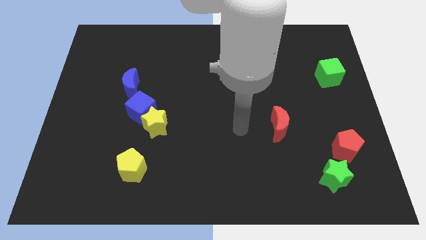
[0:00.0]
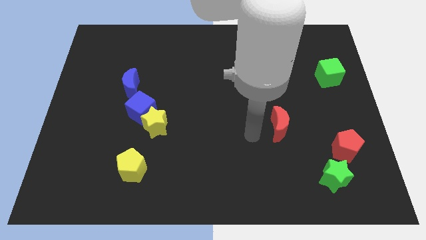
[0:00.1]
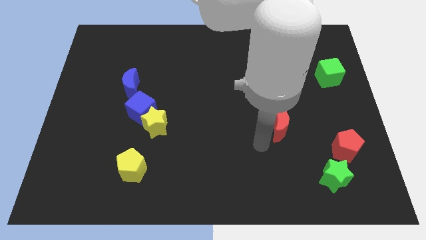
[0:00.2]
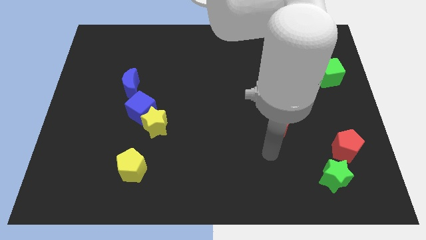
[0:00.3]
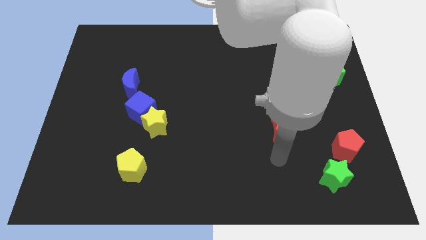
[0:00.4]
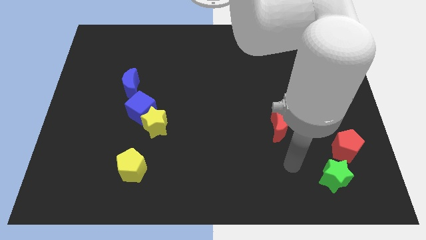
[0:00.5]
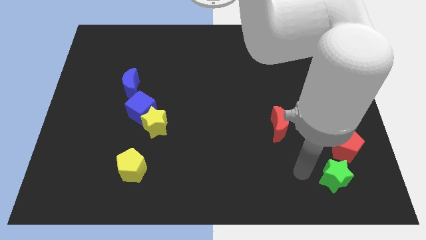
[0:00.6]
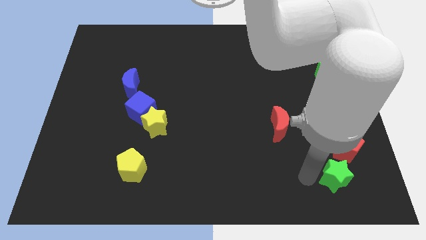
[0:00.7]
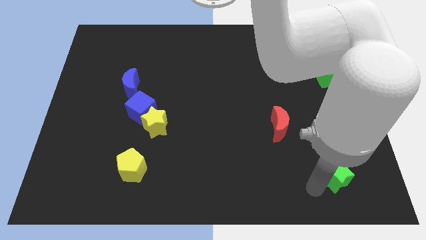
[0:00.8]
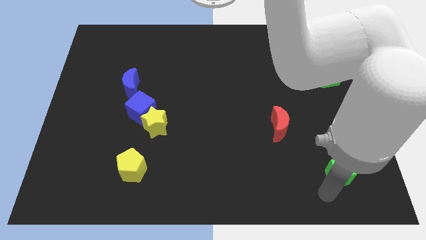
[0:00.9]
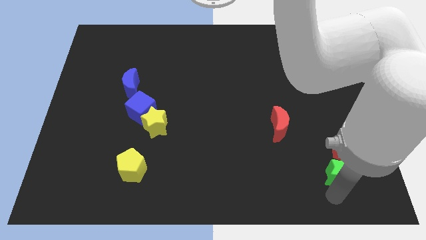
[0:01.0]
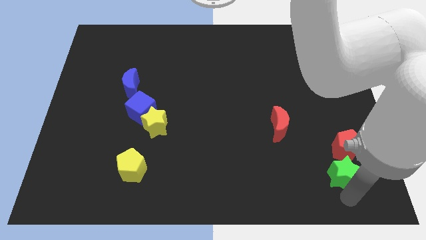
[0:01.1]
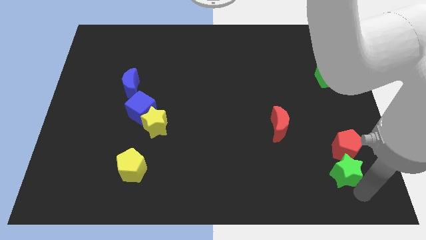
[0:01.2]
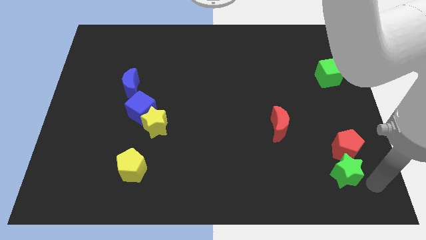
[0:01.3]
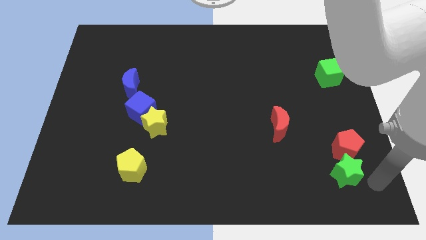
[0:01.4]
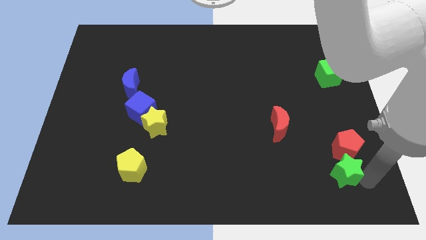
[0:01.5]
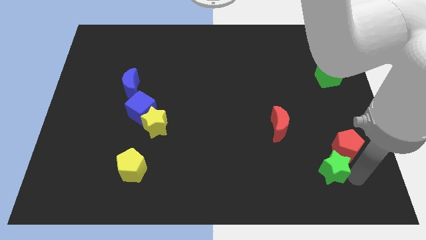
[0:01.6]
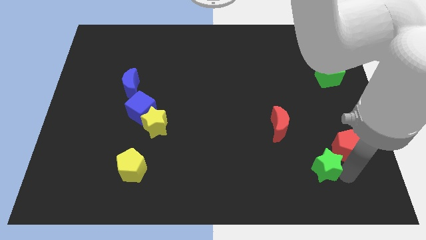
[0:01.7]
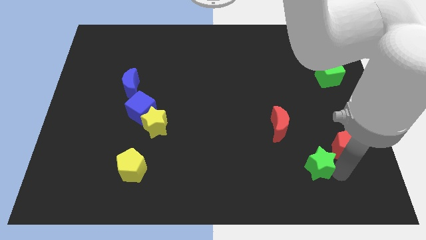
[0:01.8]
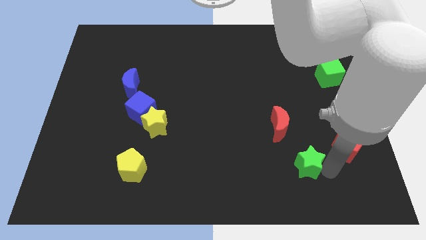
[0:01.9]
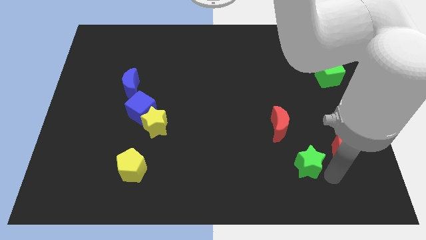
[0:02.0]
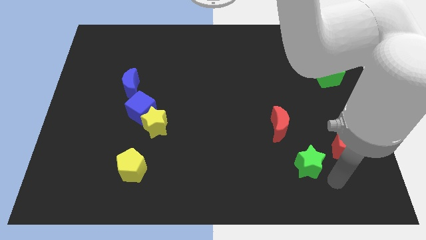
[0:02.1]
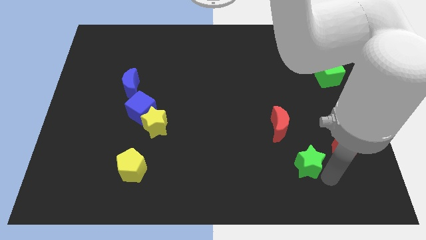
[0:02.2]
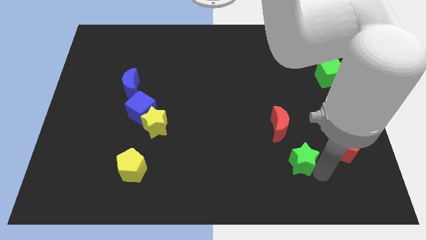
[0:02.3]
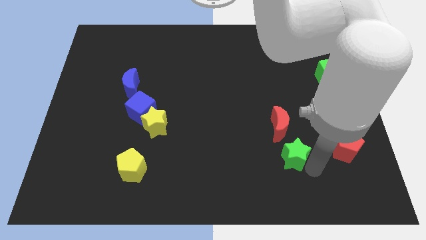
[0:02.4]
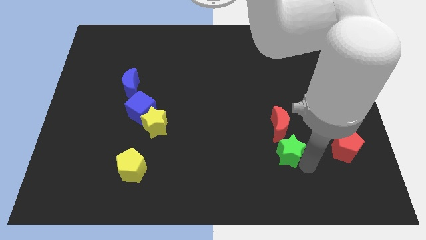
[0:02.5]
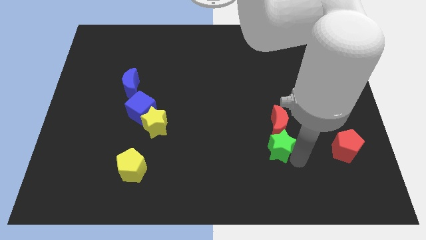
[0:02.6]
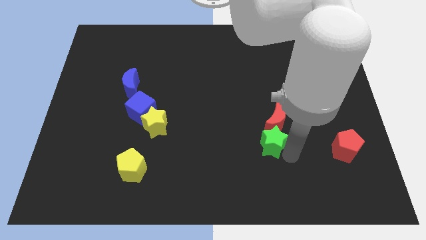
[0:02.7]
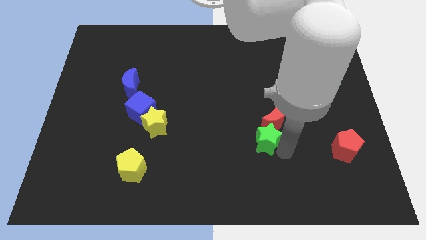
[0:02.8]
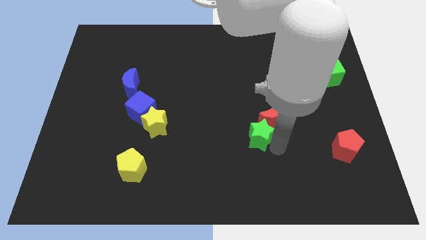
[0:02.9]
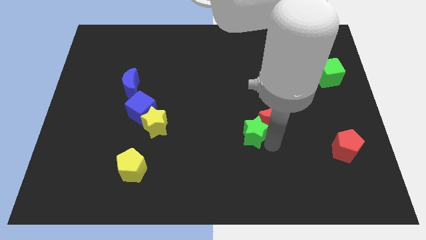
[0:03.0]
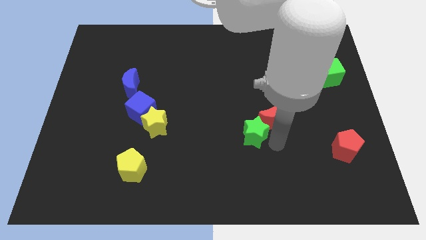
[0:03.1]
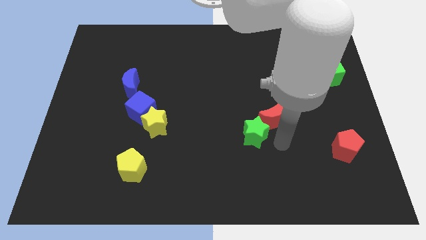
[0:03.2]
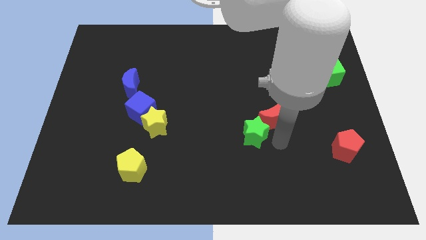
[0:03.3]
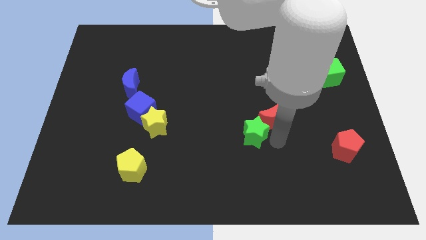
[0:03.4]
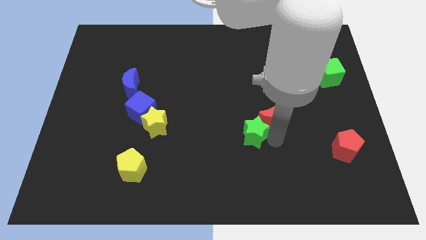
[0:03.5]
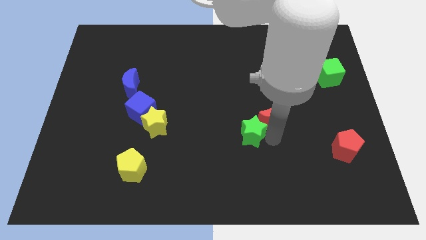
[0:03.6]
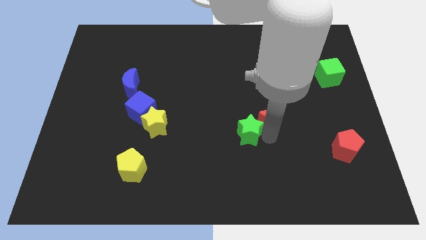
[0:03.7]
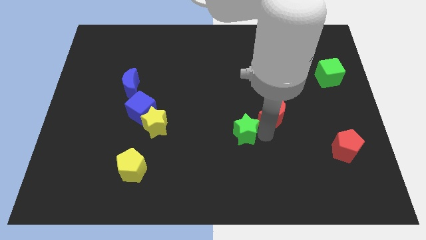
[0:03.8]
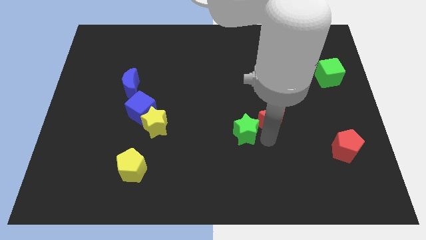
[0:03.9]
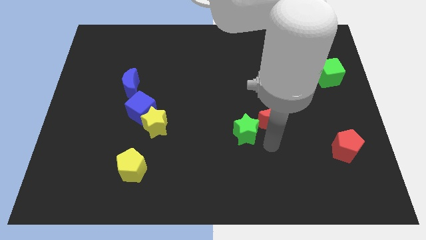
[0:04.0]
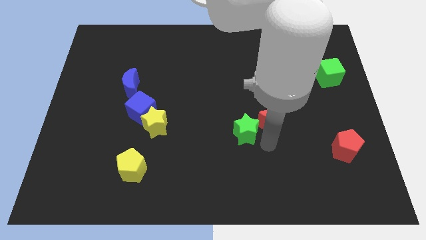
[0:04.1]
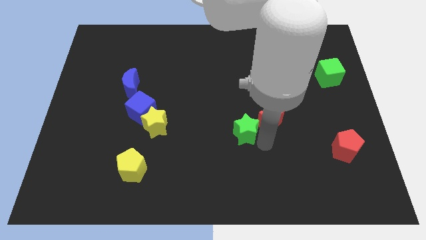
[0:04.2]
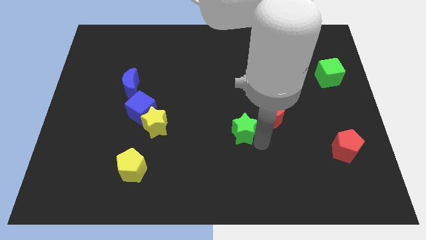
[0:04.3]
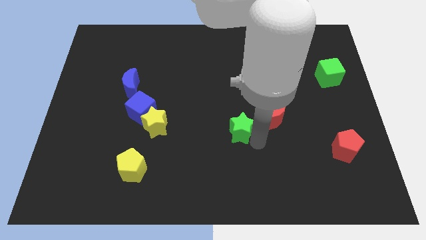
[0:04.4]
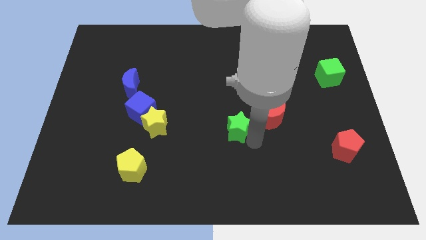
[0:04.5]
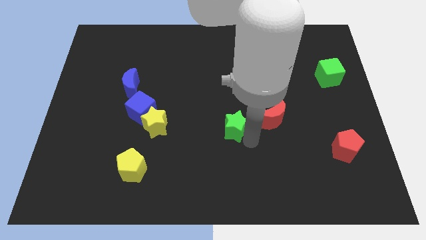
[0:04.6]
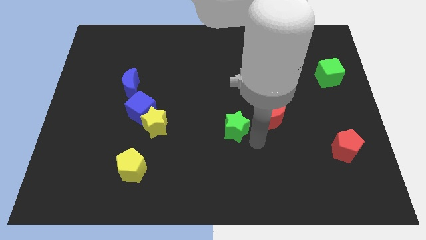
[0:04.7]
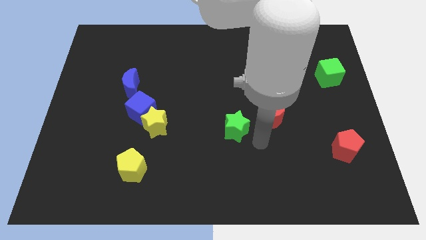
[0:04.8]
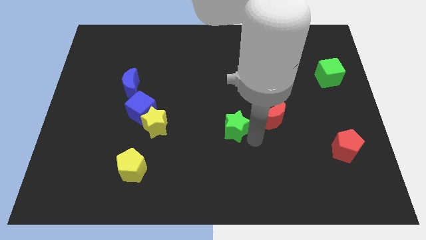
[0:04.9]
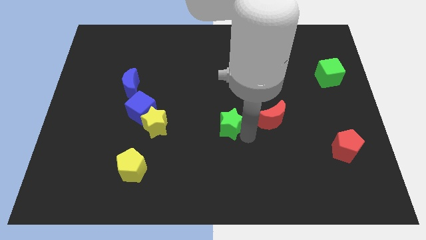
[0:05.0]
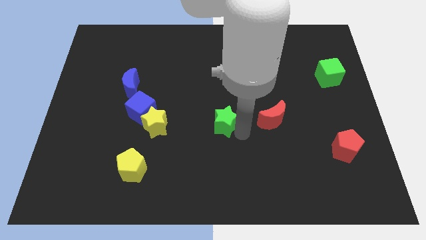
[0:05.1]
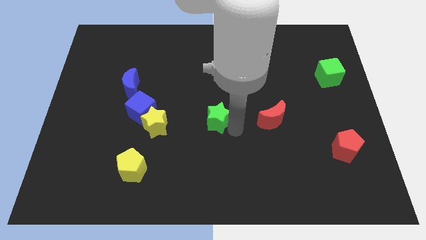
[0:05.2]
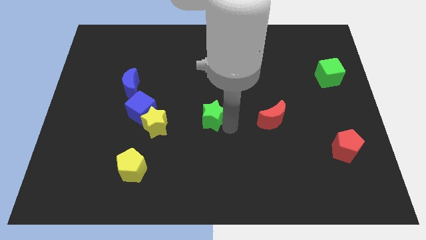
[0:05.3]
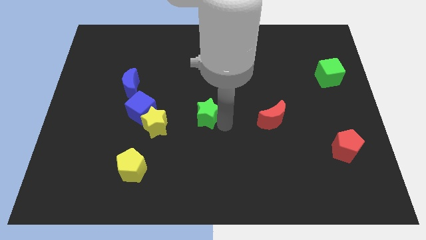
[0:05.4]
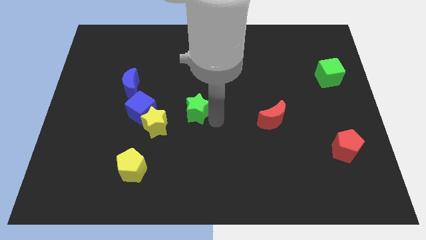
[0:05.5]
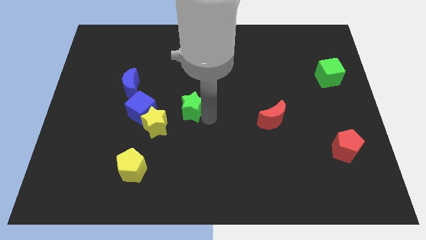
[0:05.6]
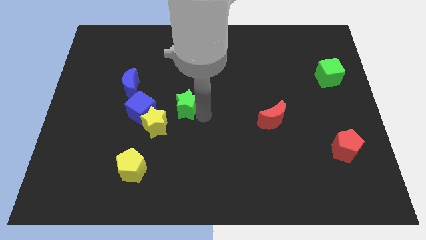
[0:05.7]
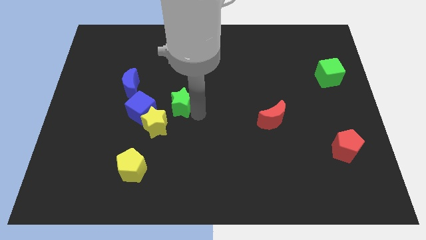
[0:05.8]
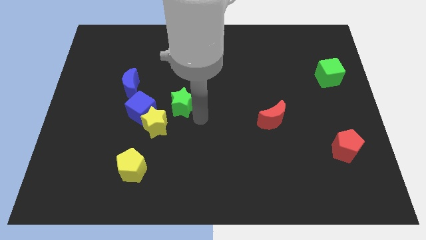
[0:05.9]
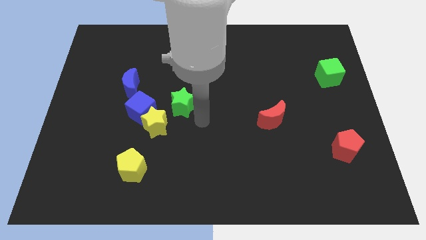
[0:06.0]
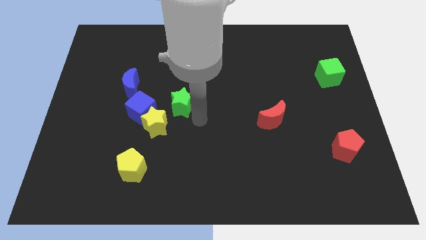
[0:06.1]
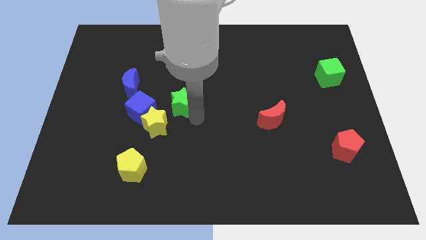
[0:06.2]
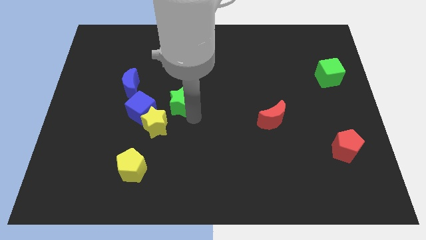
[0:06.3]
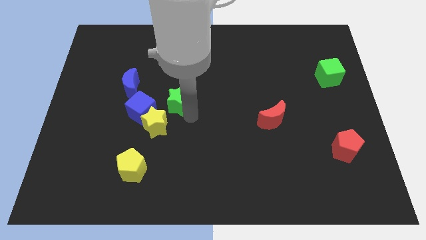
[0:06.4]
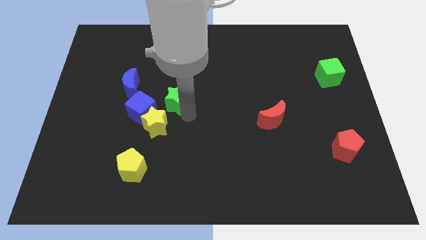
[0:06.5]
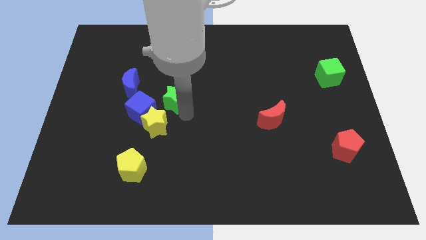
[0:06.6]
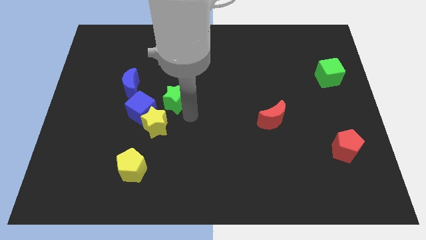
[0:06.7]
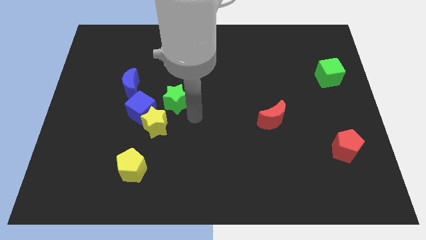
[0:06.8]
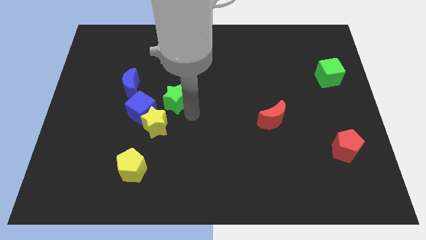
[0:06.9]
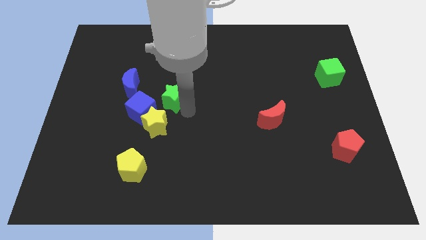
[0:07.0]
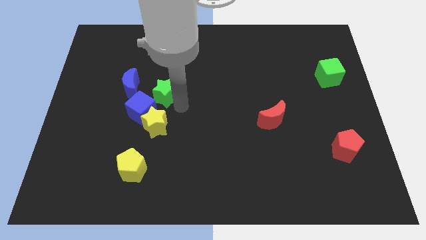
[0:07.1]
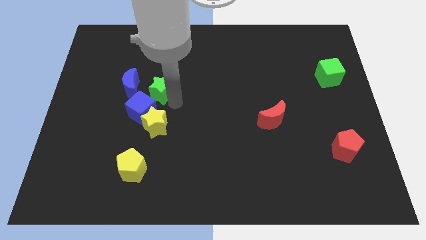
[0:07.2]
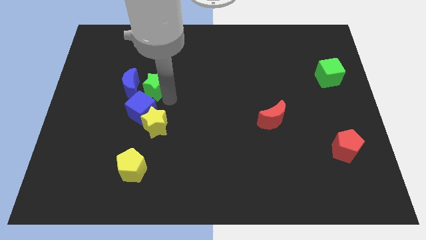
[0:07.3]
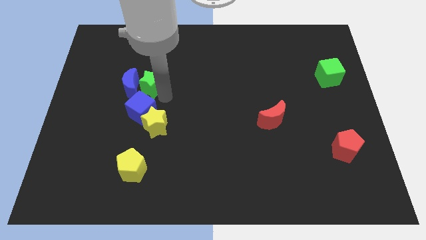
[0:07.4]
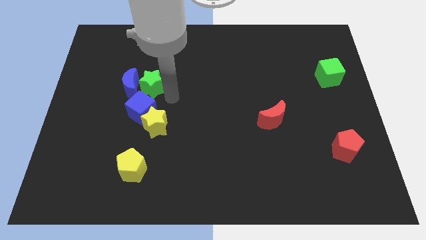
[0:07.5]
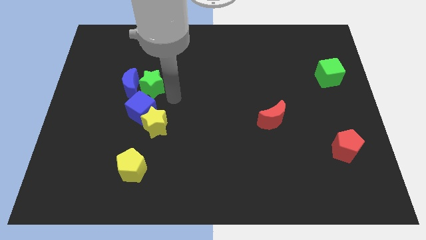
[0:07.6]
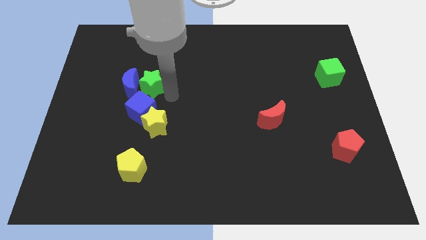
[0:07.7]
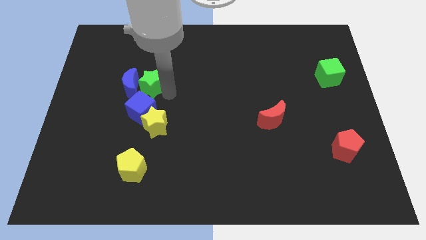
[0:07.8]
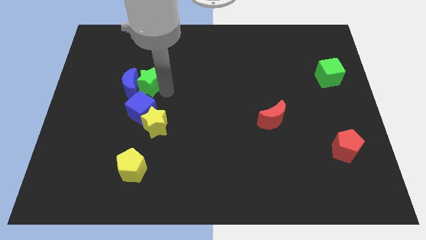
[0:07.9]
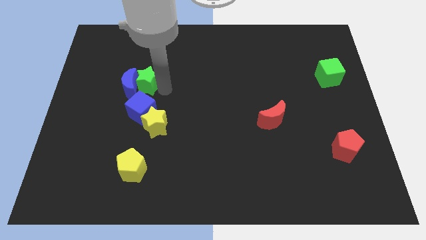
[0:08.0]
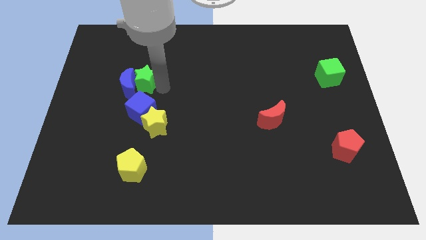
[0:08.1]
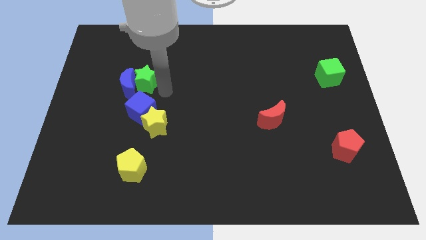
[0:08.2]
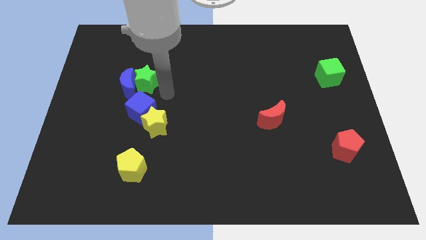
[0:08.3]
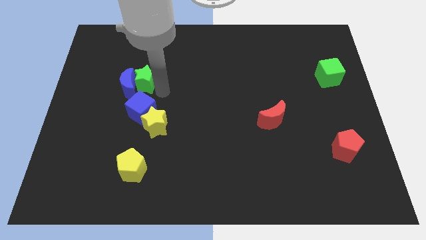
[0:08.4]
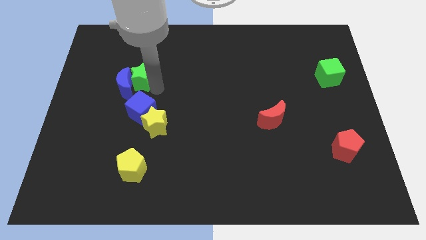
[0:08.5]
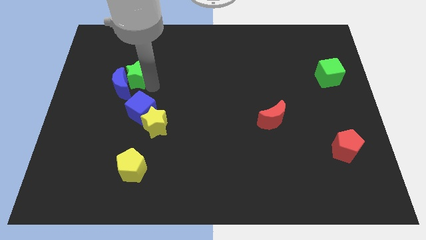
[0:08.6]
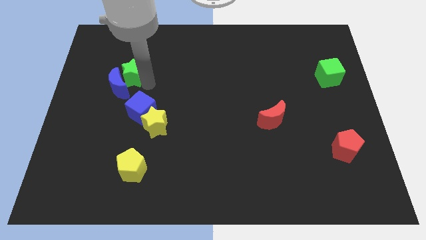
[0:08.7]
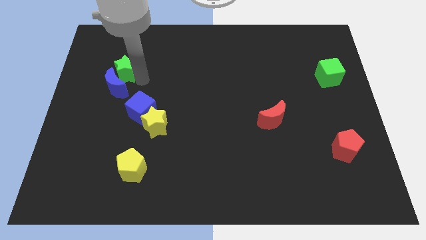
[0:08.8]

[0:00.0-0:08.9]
move the green star to the top left of the blue moon
